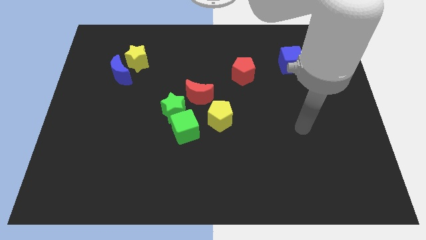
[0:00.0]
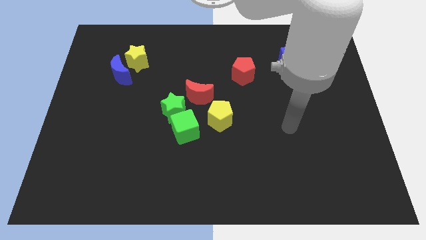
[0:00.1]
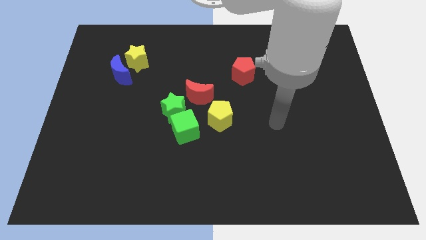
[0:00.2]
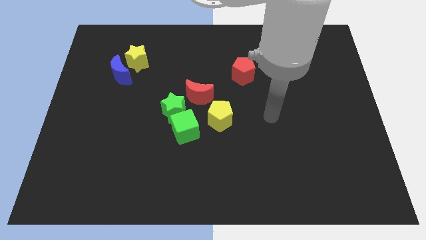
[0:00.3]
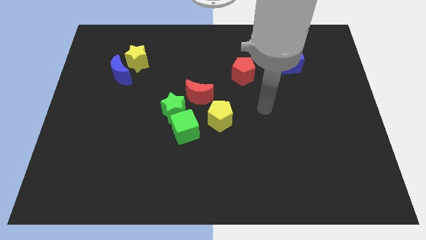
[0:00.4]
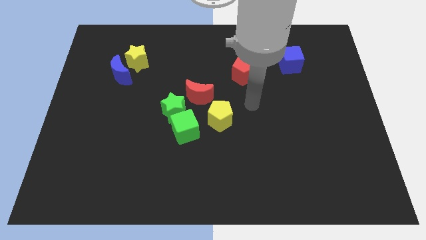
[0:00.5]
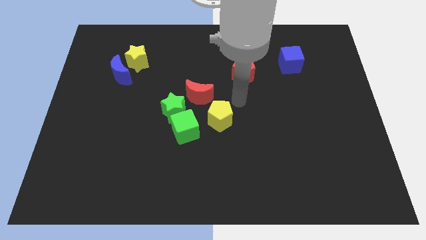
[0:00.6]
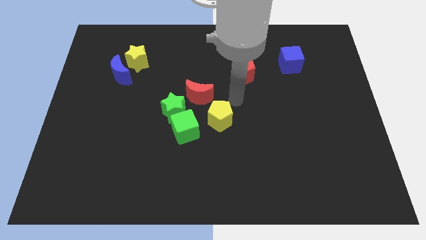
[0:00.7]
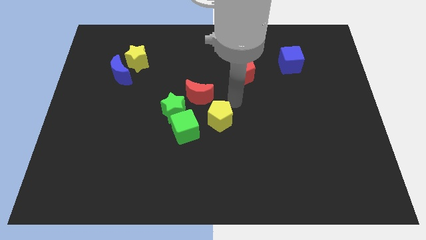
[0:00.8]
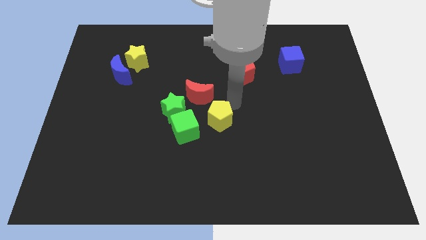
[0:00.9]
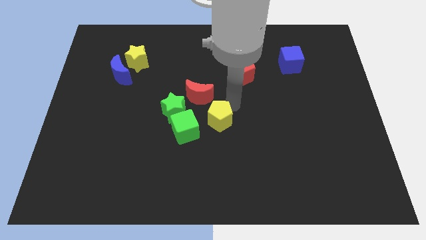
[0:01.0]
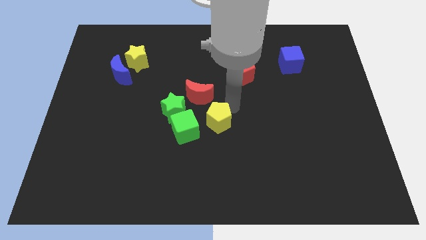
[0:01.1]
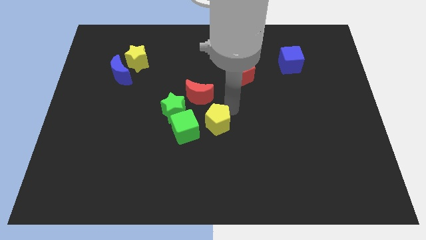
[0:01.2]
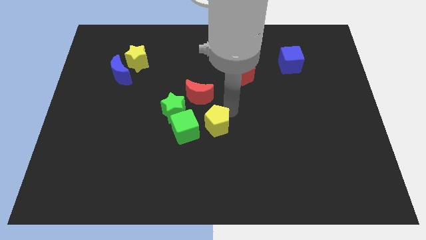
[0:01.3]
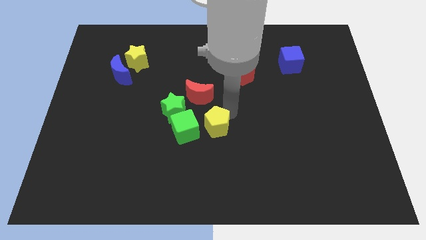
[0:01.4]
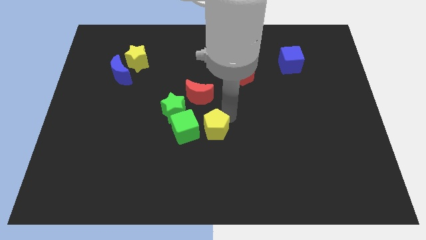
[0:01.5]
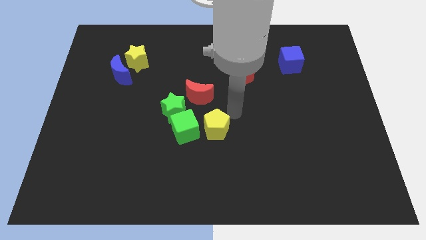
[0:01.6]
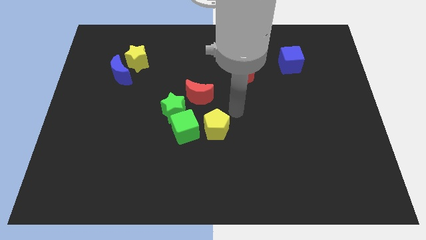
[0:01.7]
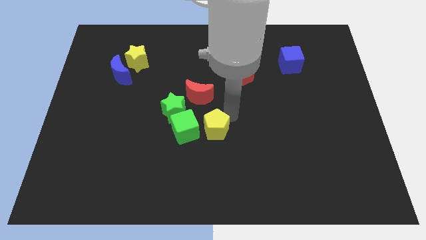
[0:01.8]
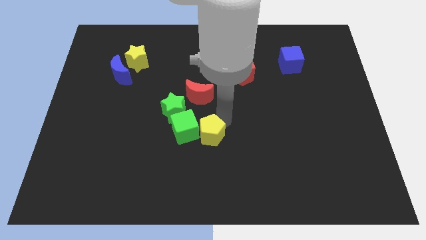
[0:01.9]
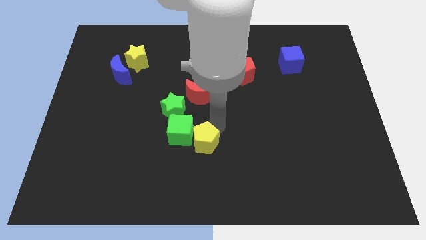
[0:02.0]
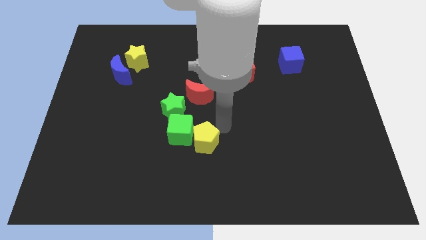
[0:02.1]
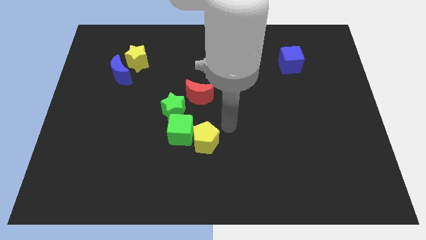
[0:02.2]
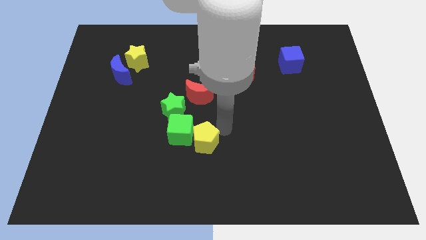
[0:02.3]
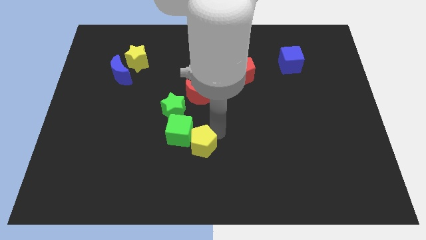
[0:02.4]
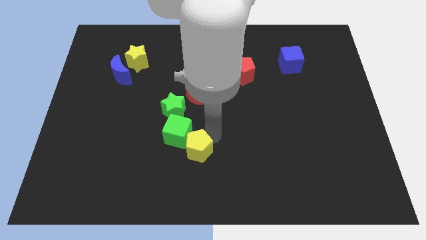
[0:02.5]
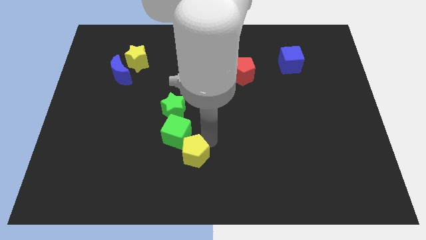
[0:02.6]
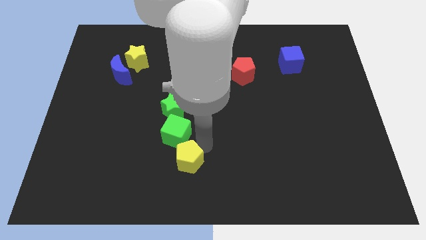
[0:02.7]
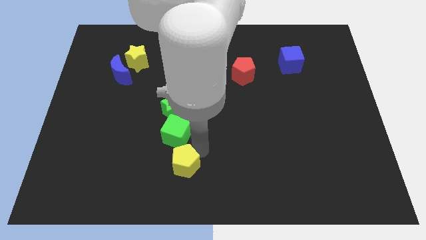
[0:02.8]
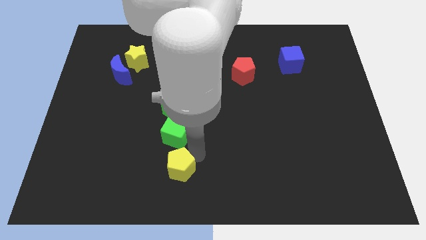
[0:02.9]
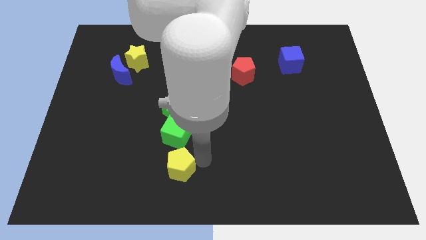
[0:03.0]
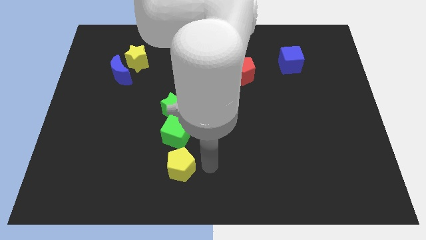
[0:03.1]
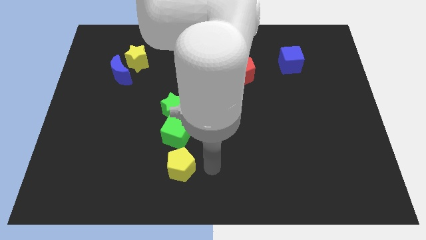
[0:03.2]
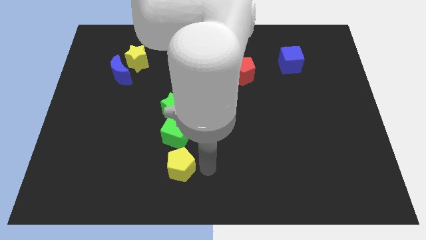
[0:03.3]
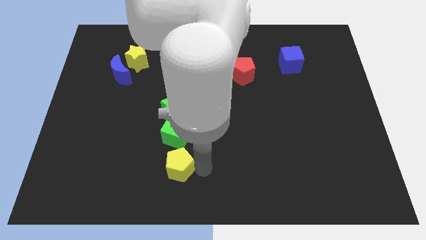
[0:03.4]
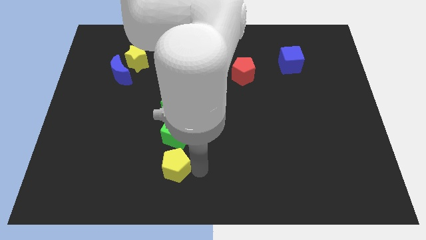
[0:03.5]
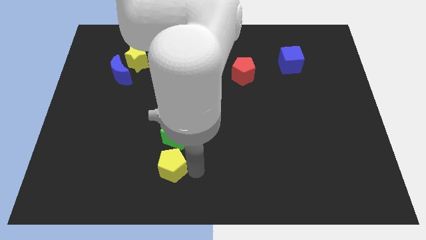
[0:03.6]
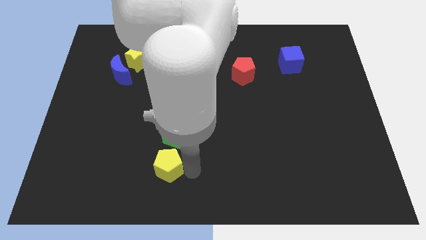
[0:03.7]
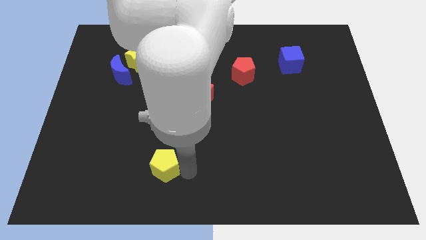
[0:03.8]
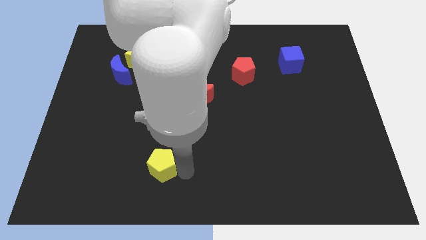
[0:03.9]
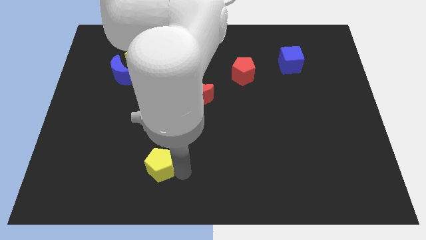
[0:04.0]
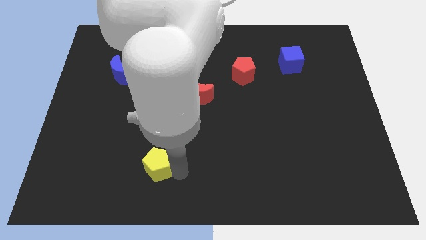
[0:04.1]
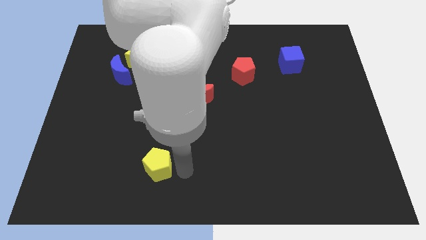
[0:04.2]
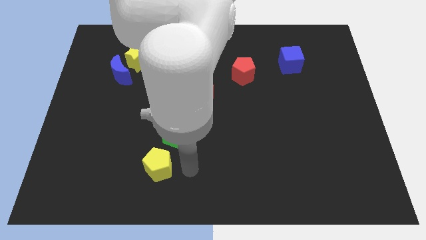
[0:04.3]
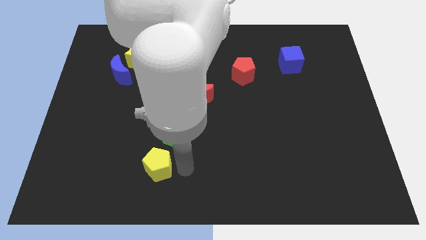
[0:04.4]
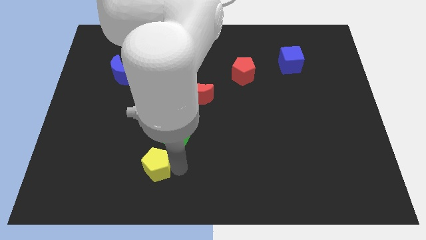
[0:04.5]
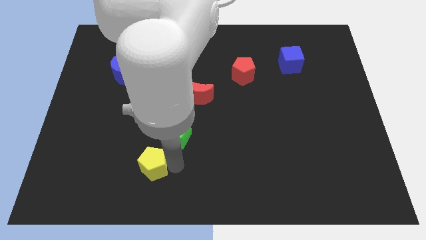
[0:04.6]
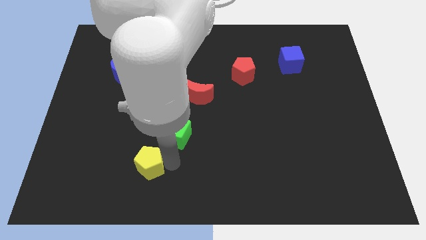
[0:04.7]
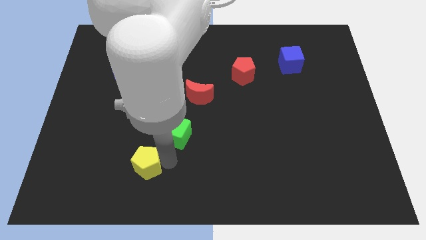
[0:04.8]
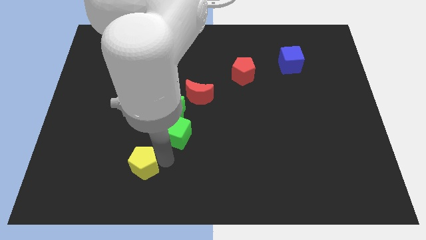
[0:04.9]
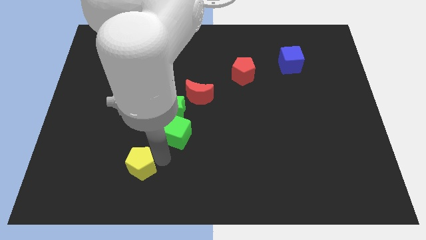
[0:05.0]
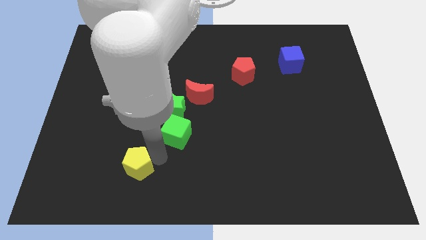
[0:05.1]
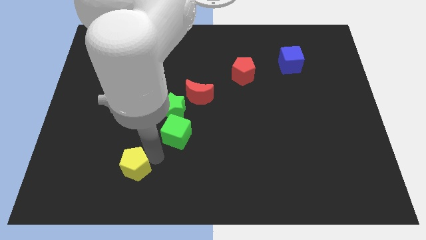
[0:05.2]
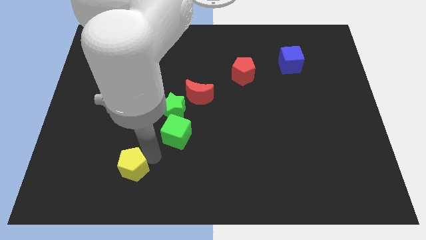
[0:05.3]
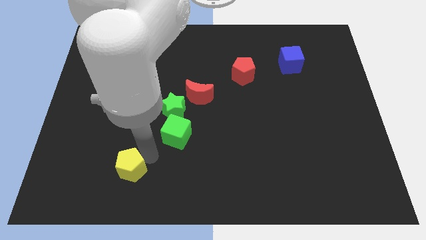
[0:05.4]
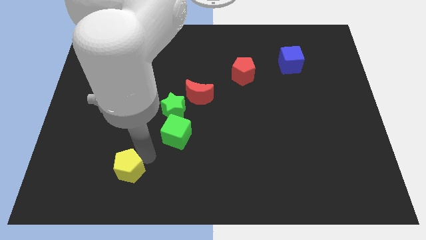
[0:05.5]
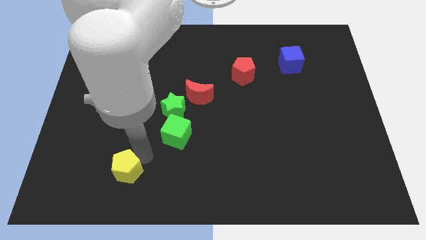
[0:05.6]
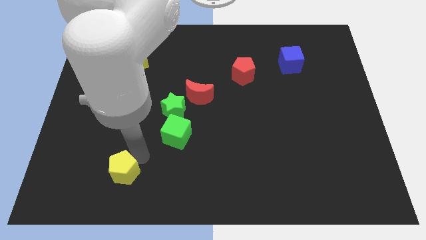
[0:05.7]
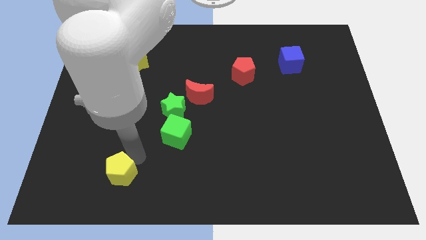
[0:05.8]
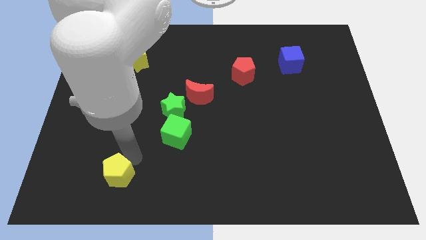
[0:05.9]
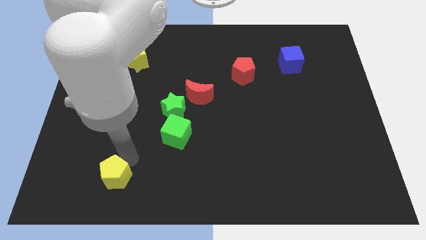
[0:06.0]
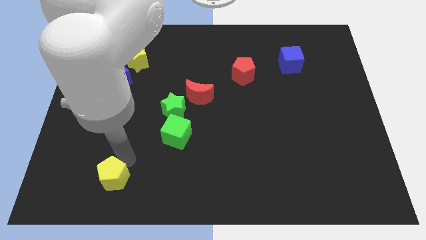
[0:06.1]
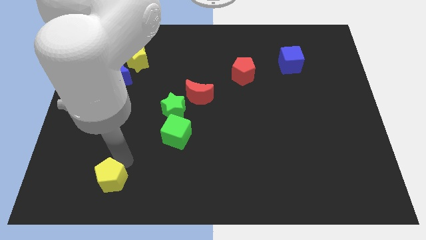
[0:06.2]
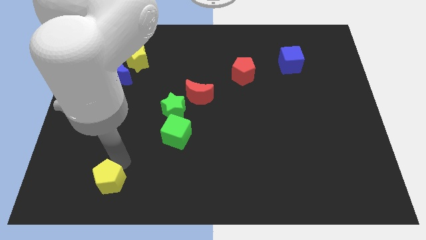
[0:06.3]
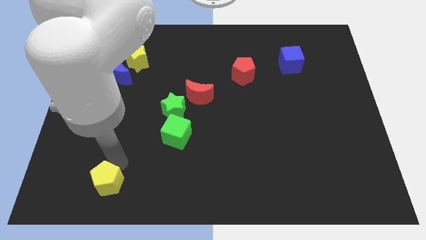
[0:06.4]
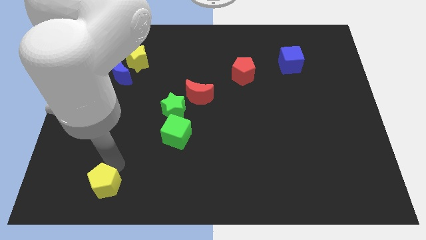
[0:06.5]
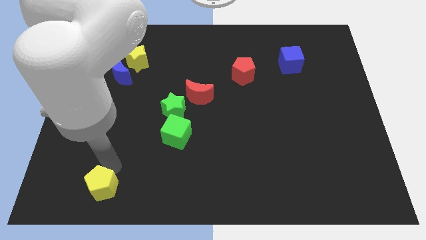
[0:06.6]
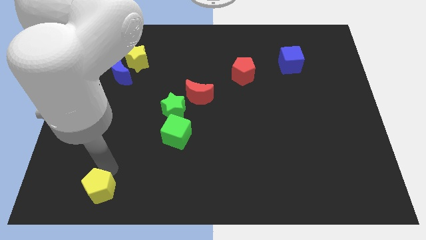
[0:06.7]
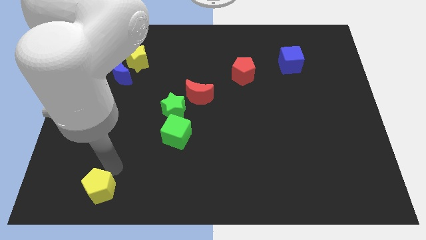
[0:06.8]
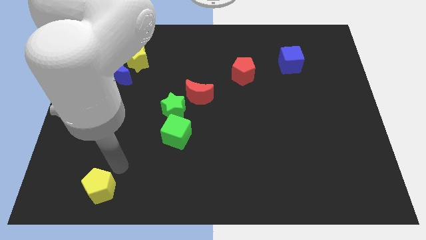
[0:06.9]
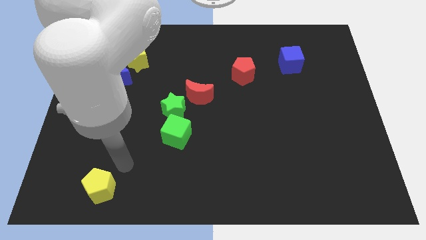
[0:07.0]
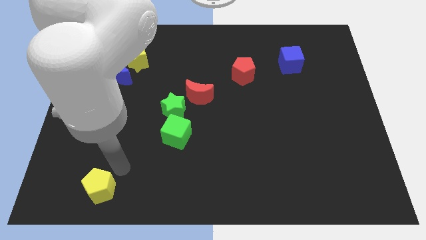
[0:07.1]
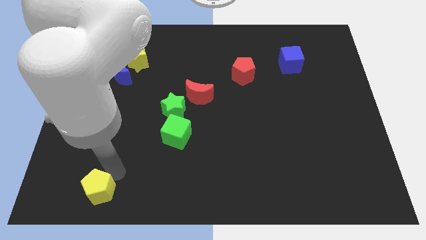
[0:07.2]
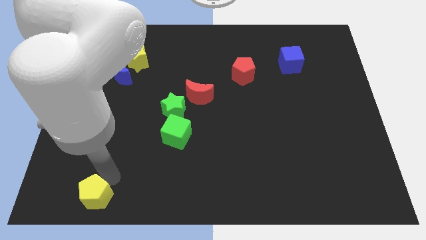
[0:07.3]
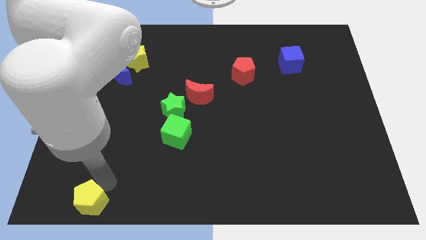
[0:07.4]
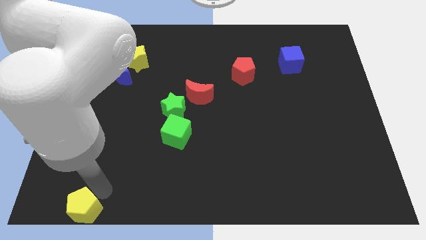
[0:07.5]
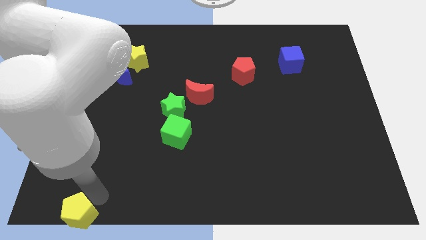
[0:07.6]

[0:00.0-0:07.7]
put the yellow pentagon to the lower left corner
